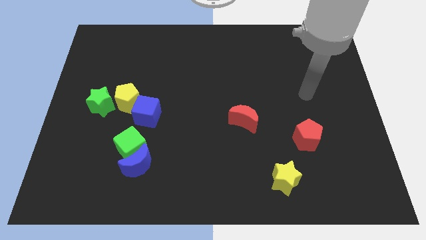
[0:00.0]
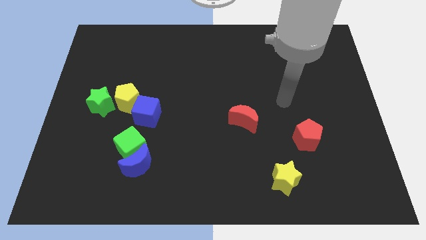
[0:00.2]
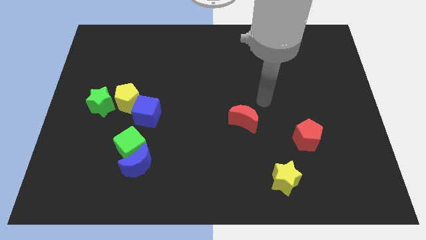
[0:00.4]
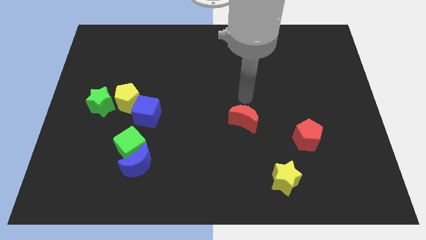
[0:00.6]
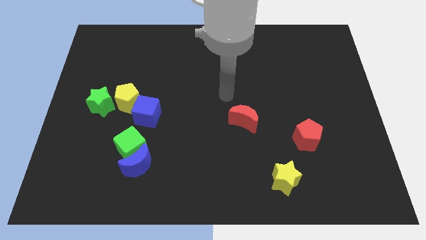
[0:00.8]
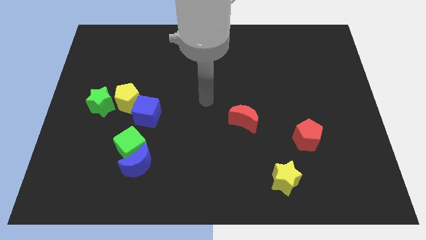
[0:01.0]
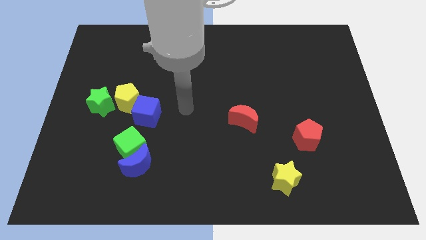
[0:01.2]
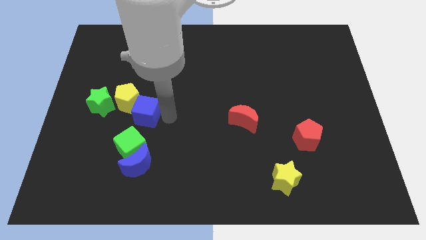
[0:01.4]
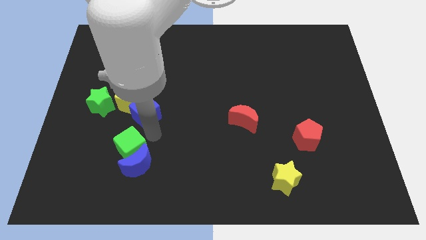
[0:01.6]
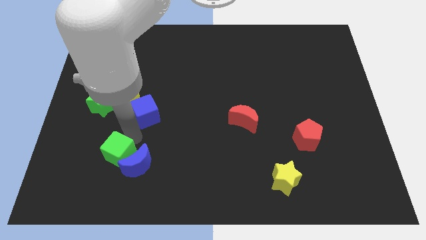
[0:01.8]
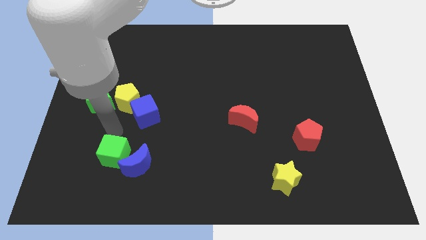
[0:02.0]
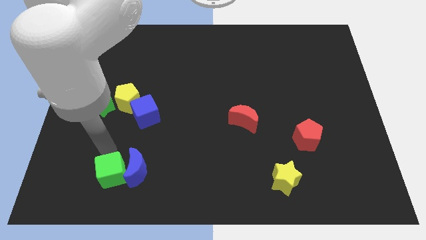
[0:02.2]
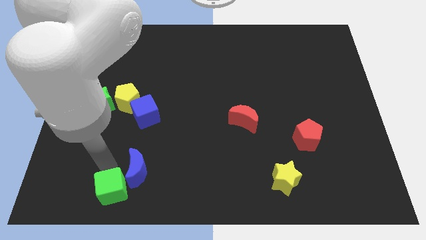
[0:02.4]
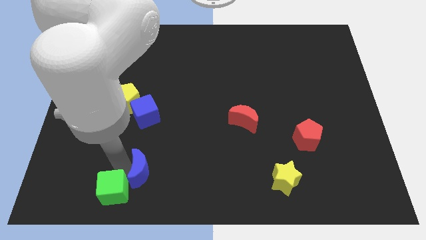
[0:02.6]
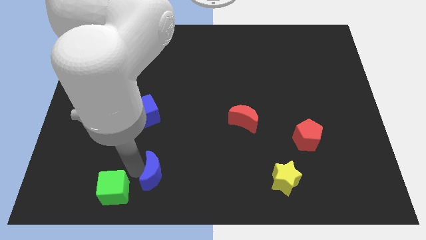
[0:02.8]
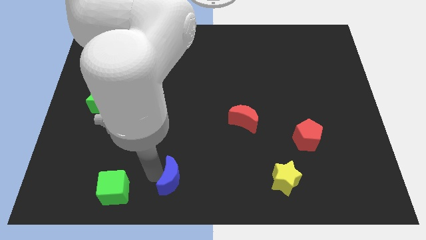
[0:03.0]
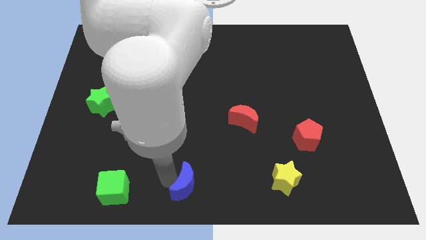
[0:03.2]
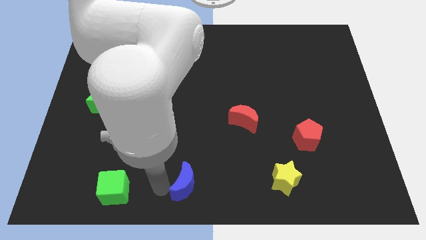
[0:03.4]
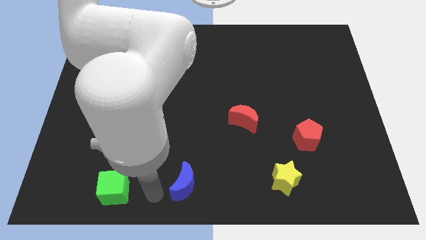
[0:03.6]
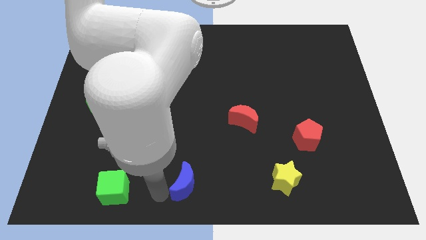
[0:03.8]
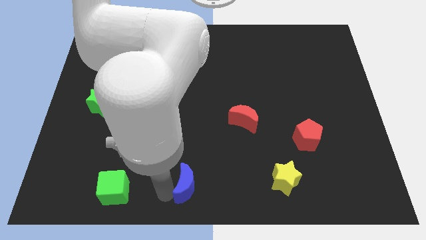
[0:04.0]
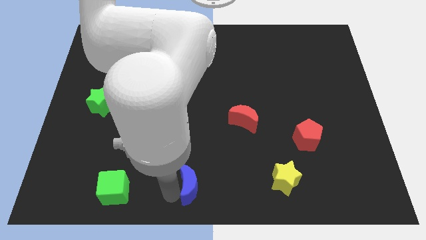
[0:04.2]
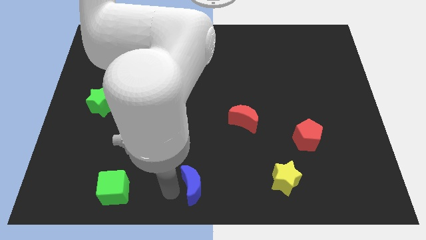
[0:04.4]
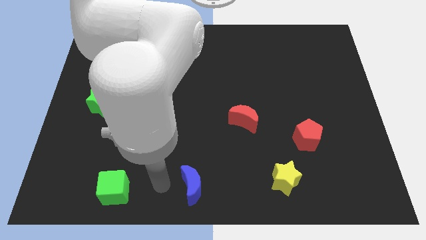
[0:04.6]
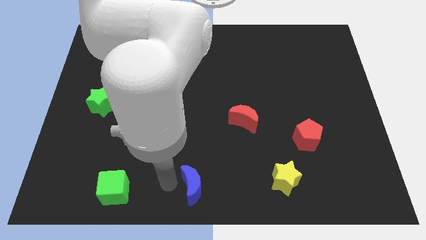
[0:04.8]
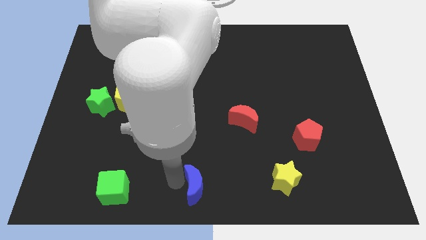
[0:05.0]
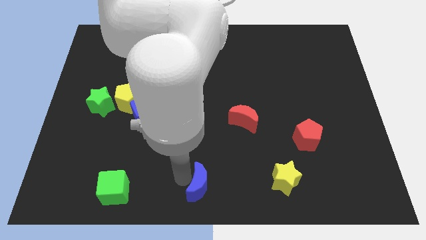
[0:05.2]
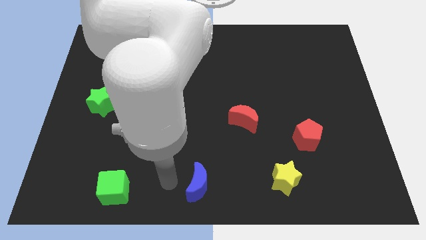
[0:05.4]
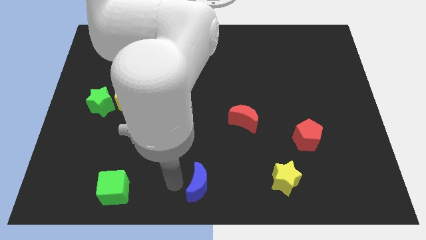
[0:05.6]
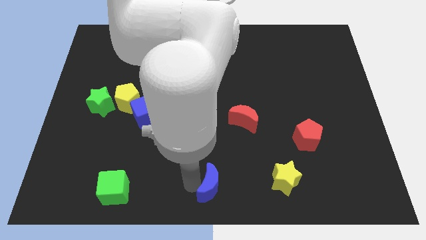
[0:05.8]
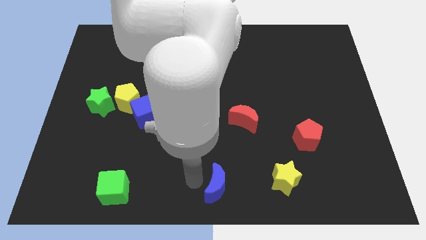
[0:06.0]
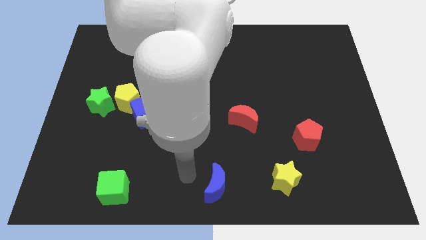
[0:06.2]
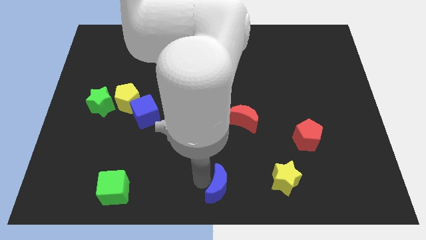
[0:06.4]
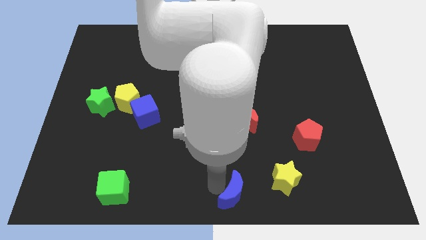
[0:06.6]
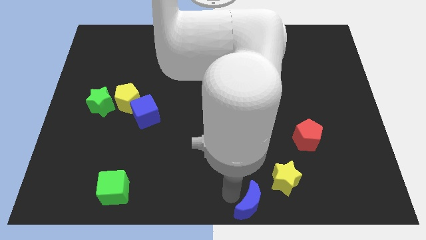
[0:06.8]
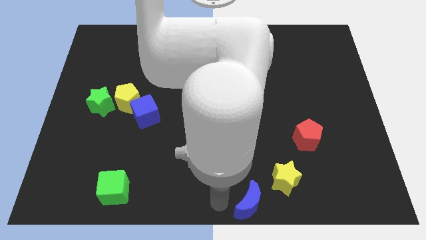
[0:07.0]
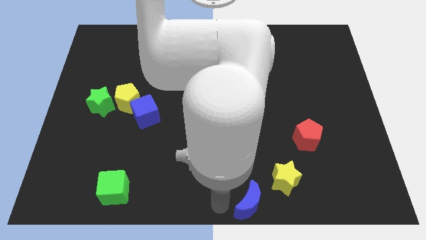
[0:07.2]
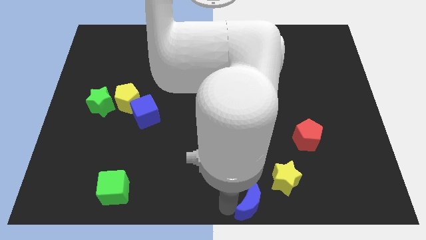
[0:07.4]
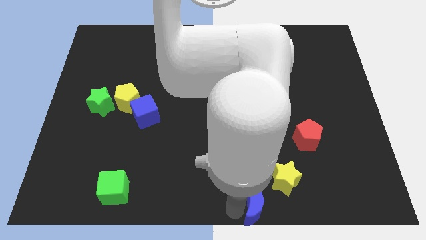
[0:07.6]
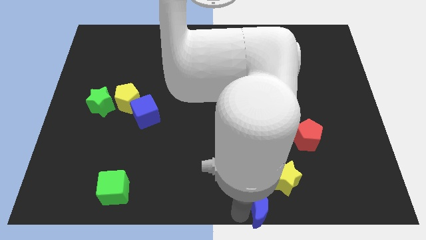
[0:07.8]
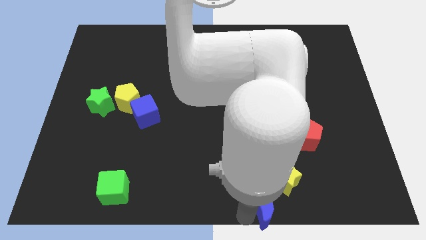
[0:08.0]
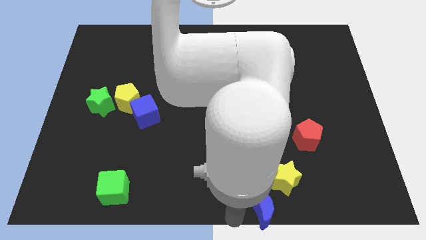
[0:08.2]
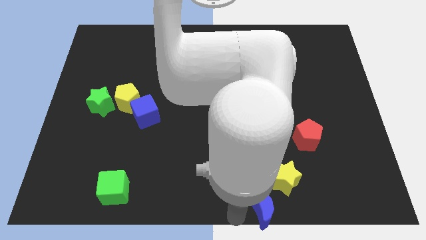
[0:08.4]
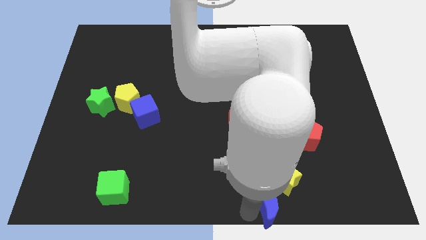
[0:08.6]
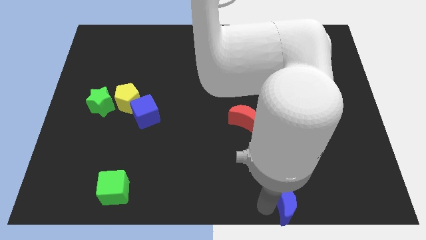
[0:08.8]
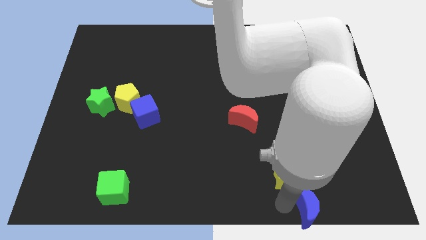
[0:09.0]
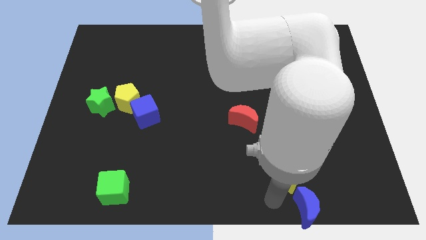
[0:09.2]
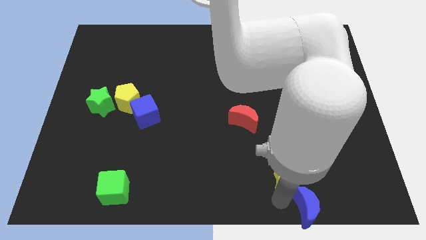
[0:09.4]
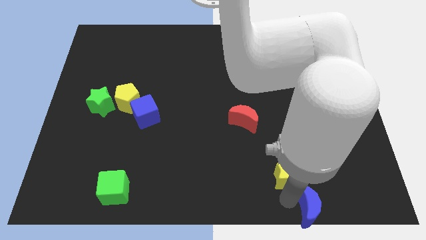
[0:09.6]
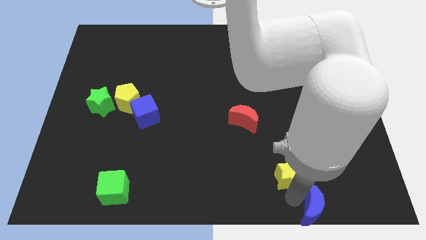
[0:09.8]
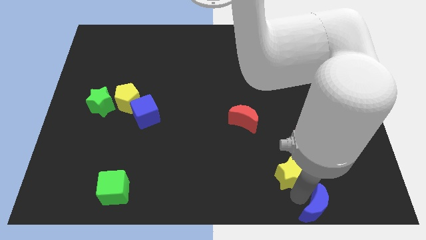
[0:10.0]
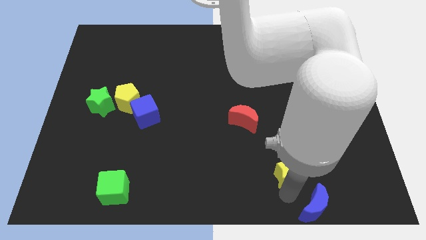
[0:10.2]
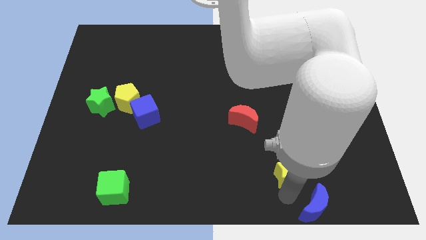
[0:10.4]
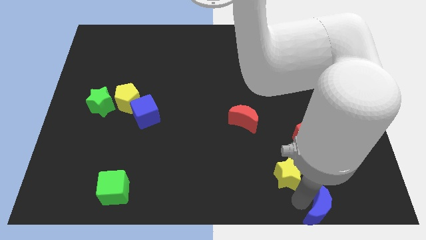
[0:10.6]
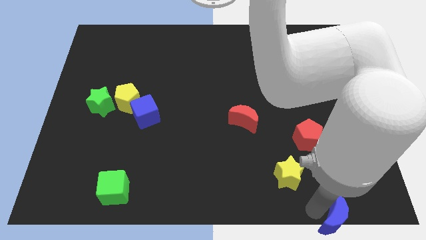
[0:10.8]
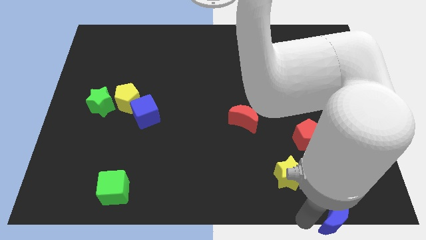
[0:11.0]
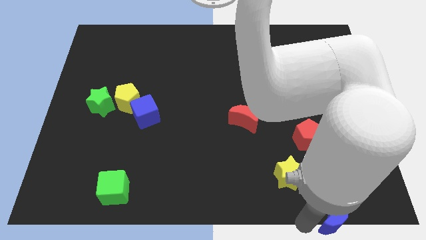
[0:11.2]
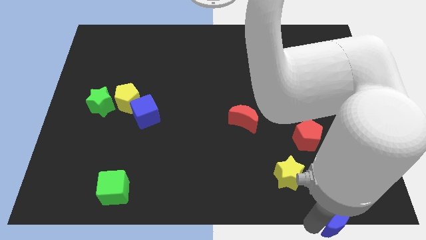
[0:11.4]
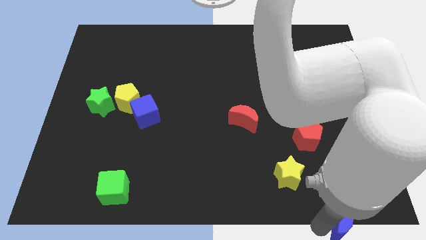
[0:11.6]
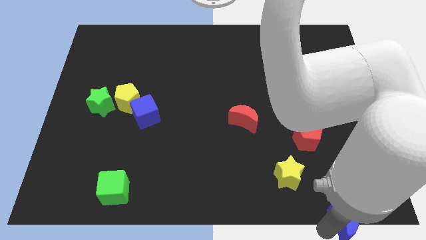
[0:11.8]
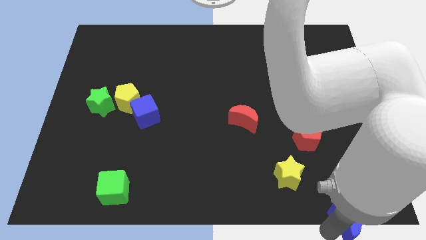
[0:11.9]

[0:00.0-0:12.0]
push the blue moon to the lower right corner

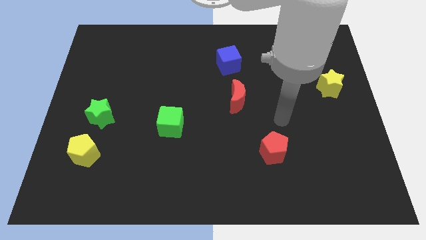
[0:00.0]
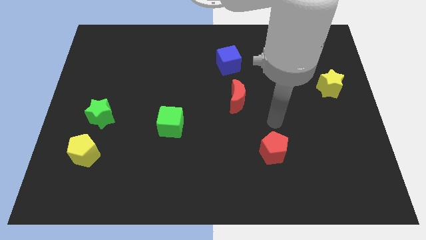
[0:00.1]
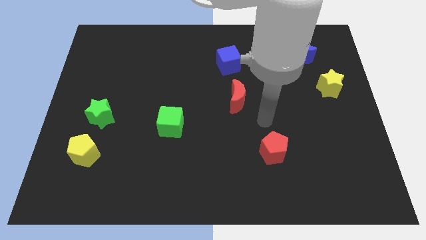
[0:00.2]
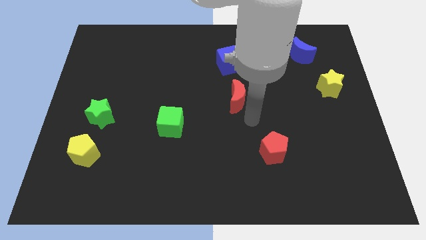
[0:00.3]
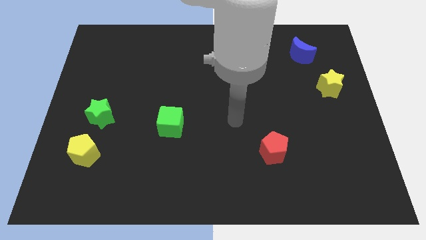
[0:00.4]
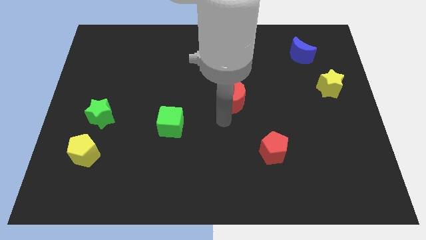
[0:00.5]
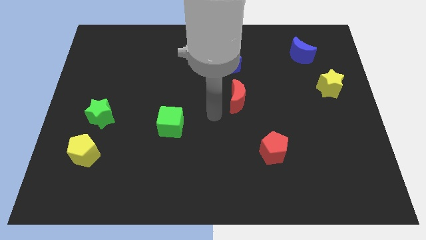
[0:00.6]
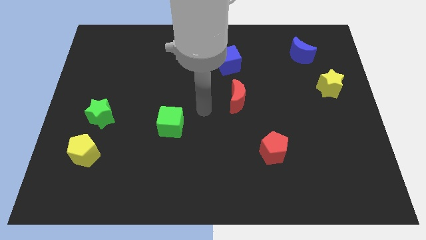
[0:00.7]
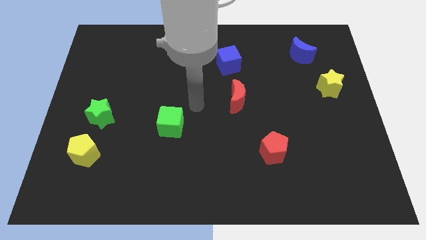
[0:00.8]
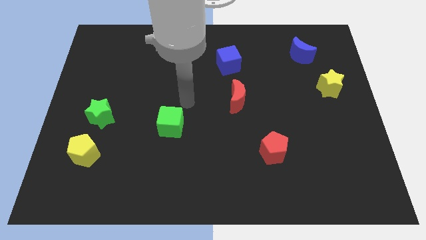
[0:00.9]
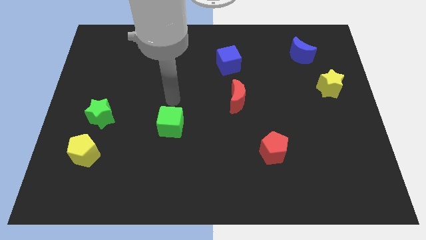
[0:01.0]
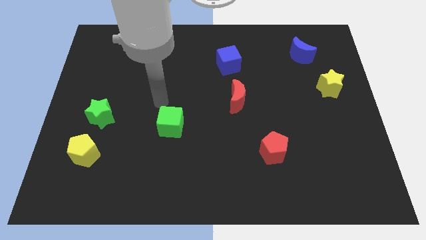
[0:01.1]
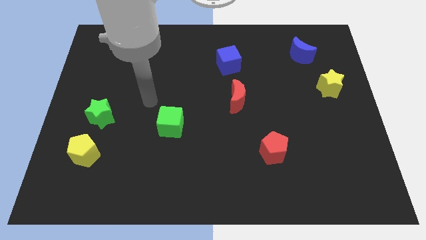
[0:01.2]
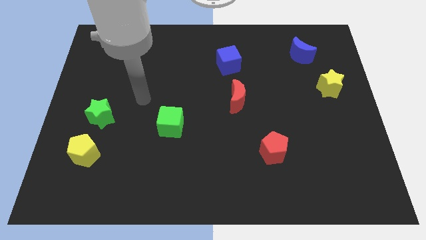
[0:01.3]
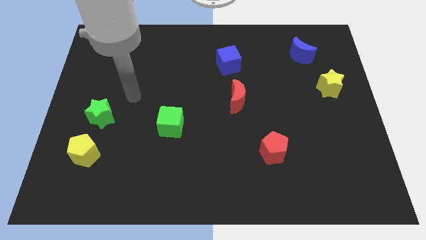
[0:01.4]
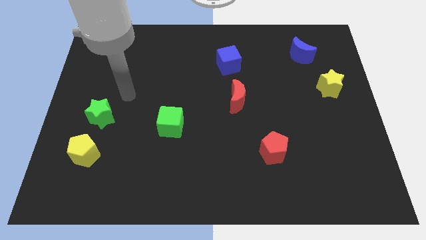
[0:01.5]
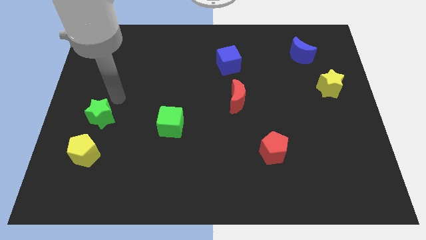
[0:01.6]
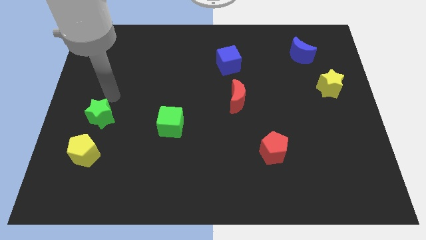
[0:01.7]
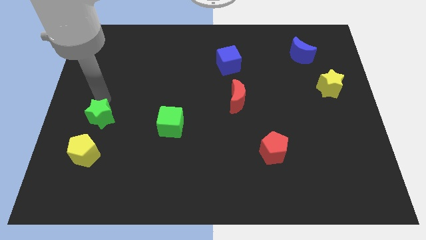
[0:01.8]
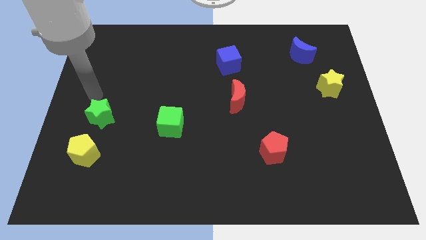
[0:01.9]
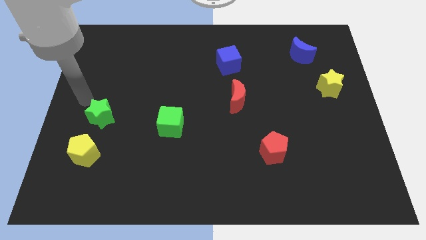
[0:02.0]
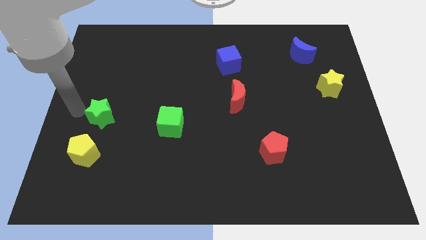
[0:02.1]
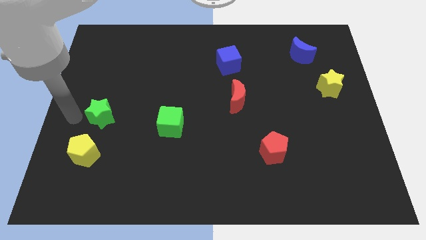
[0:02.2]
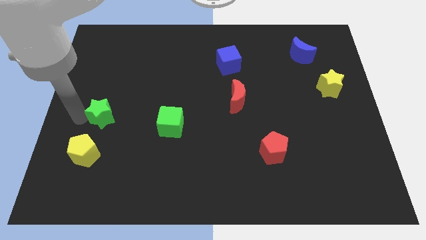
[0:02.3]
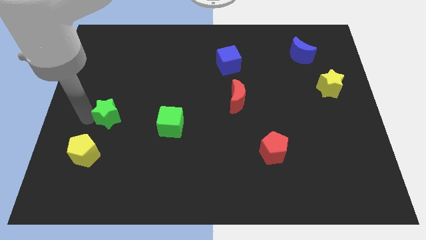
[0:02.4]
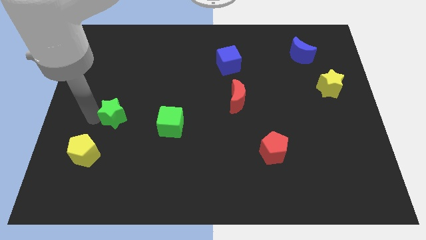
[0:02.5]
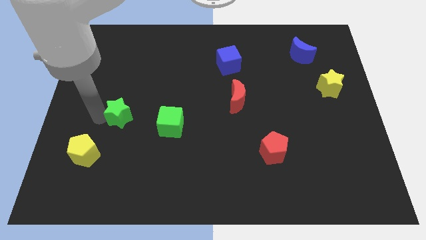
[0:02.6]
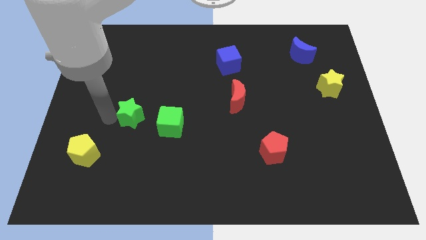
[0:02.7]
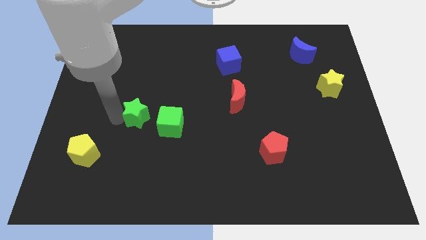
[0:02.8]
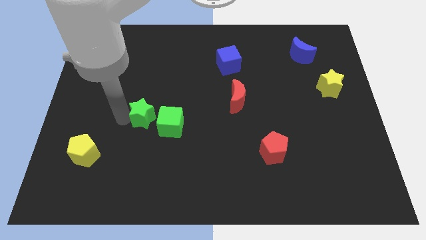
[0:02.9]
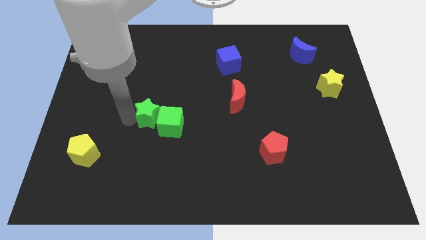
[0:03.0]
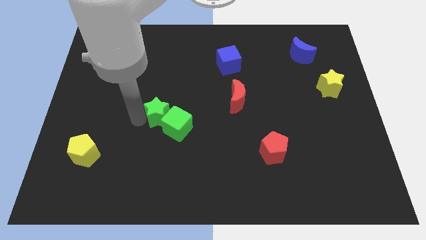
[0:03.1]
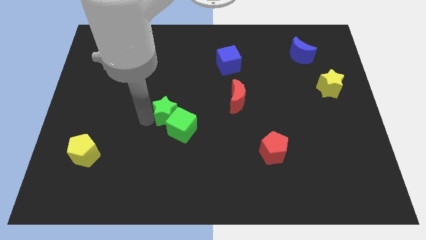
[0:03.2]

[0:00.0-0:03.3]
put the green star to the center
